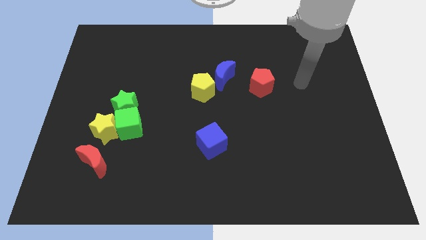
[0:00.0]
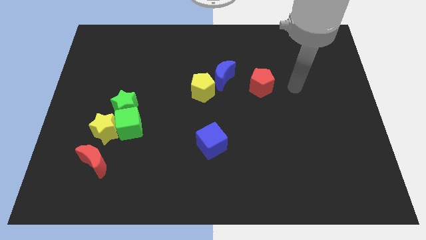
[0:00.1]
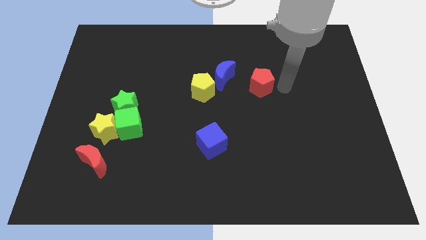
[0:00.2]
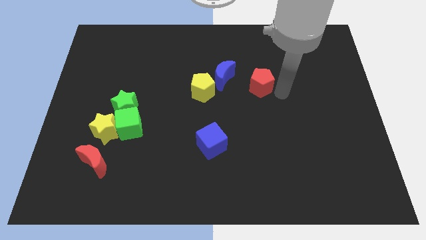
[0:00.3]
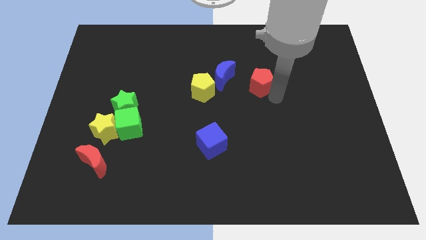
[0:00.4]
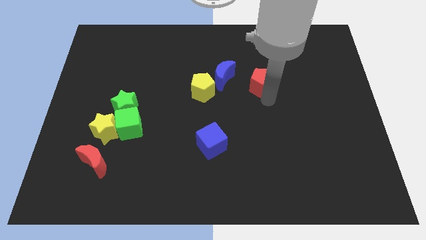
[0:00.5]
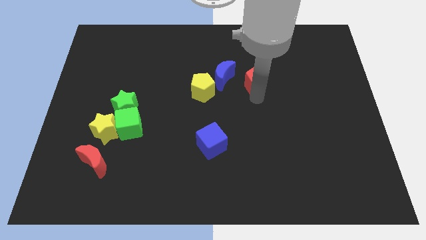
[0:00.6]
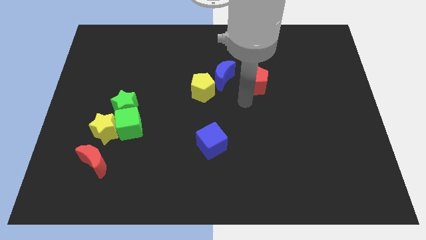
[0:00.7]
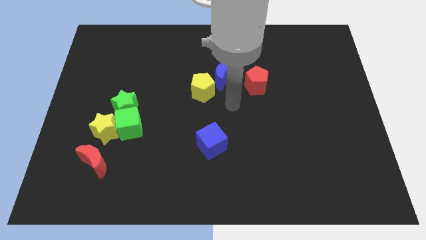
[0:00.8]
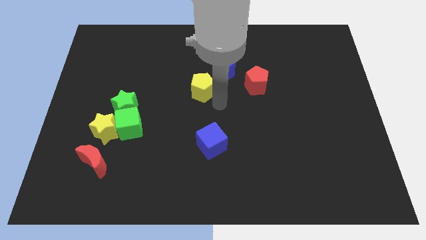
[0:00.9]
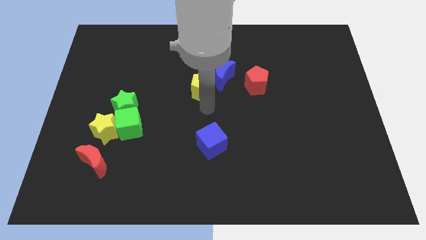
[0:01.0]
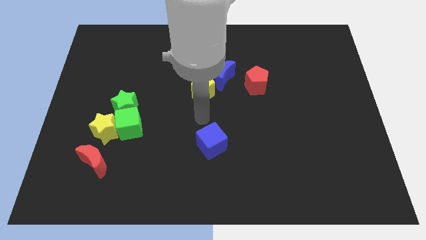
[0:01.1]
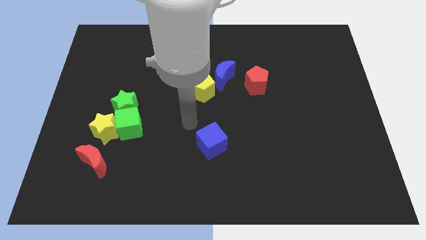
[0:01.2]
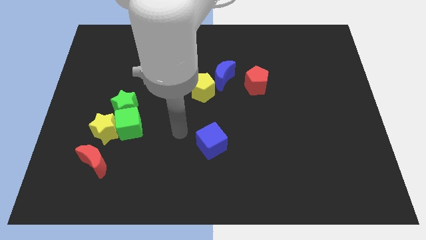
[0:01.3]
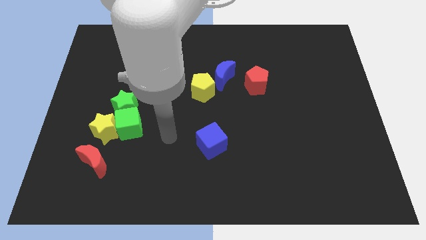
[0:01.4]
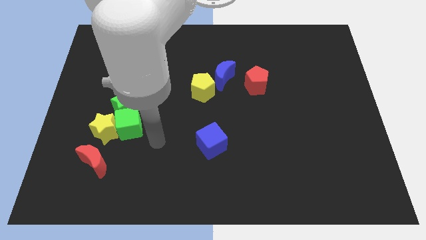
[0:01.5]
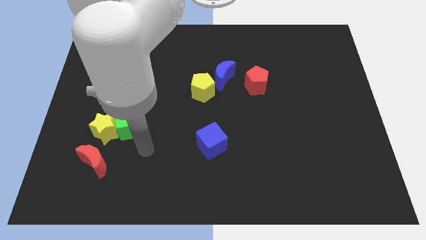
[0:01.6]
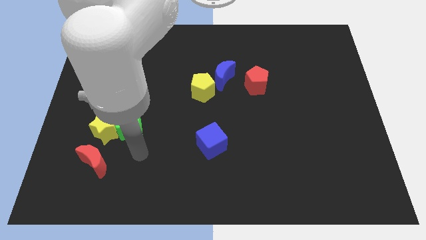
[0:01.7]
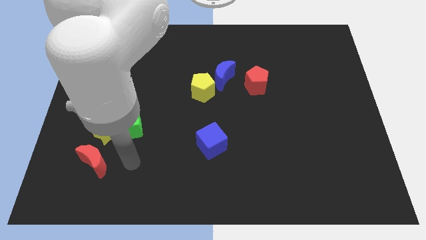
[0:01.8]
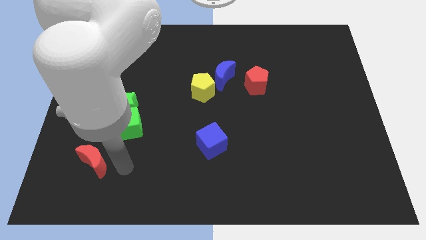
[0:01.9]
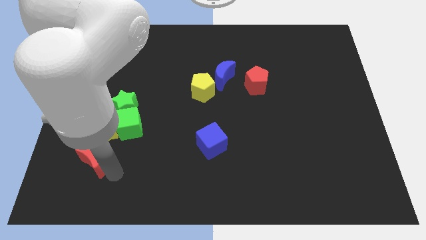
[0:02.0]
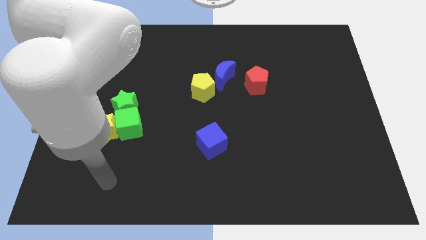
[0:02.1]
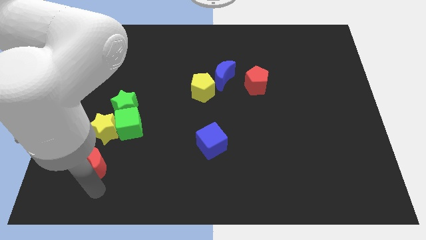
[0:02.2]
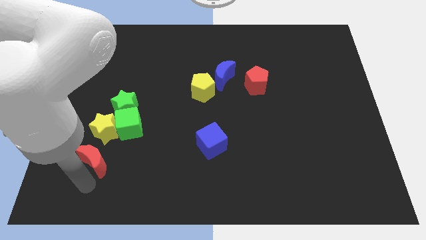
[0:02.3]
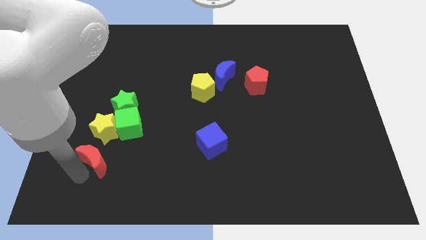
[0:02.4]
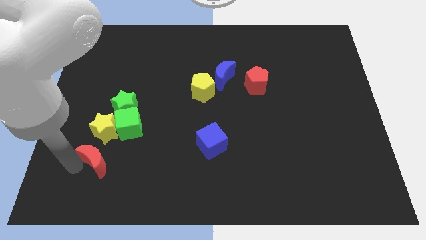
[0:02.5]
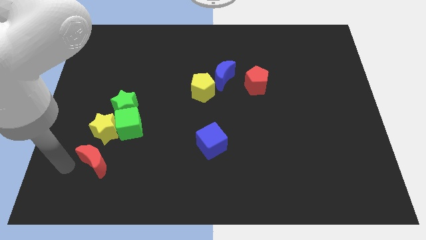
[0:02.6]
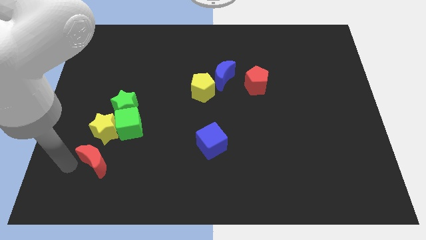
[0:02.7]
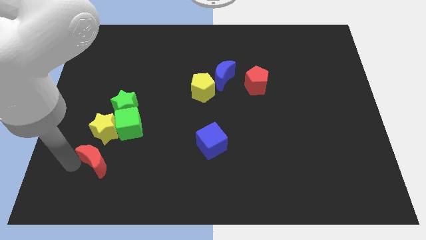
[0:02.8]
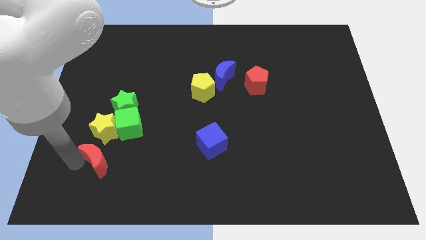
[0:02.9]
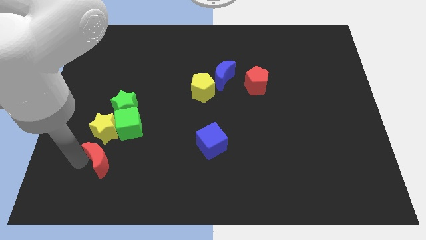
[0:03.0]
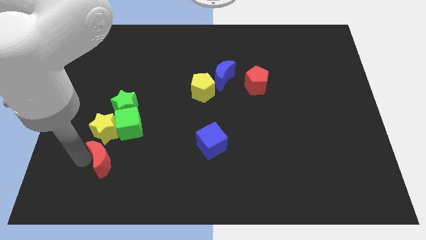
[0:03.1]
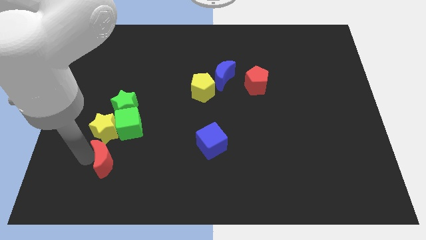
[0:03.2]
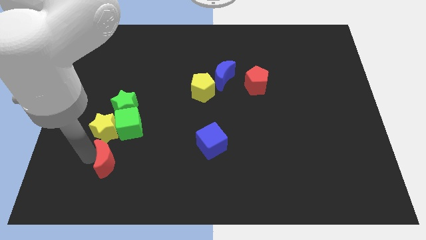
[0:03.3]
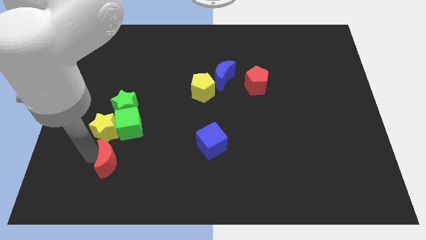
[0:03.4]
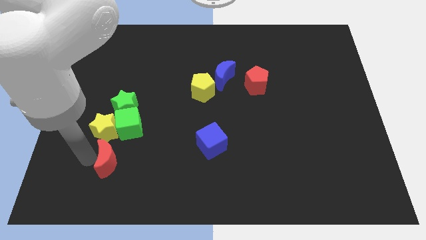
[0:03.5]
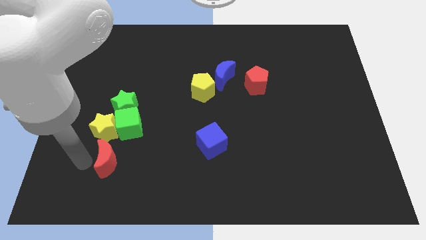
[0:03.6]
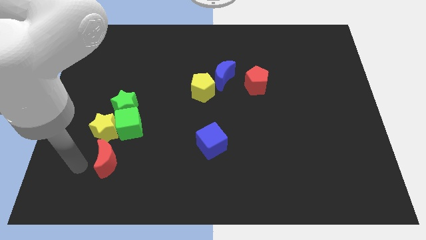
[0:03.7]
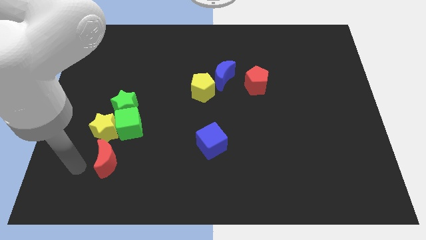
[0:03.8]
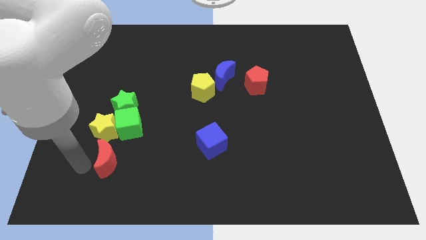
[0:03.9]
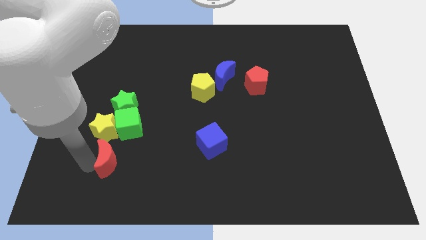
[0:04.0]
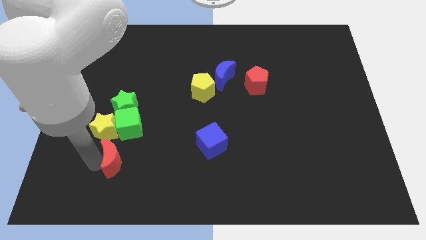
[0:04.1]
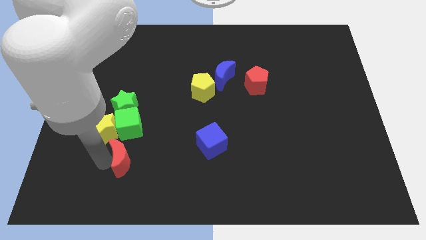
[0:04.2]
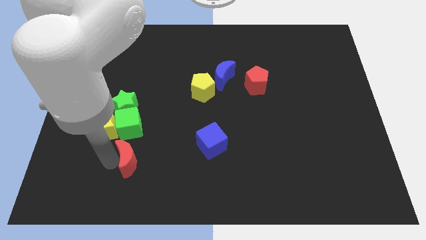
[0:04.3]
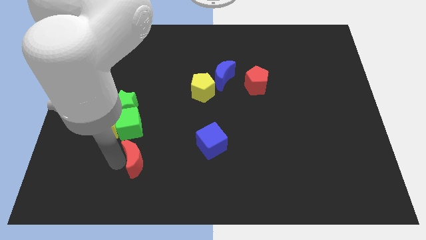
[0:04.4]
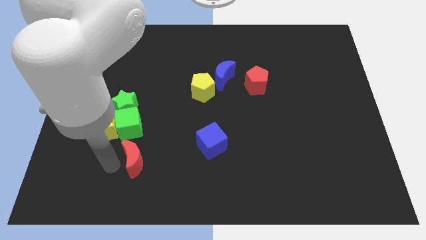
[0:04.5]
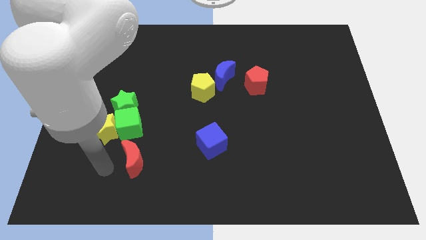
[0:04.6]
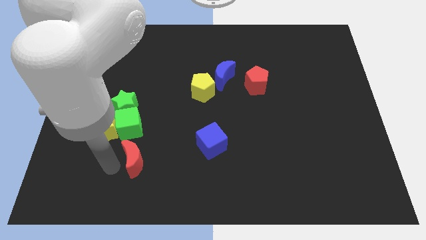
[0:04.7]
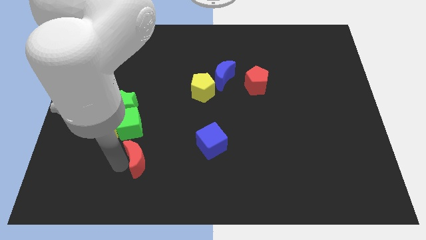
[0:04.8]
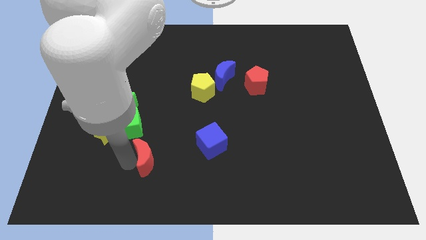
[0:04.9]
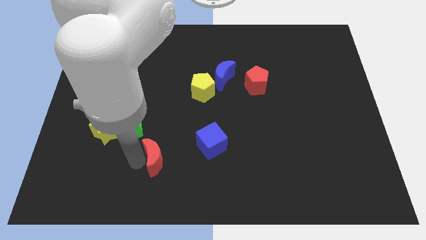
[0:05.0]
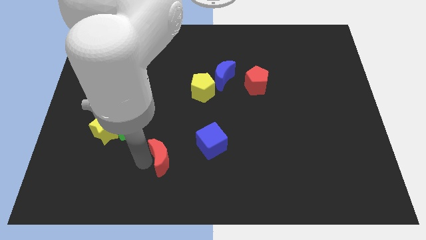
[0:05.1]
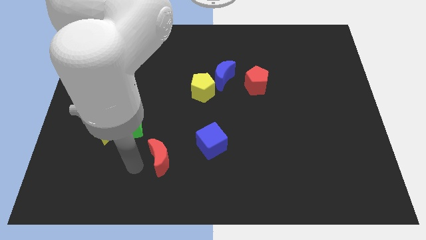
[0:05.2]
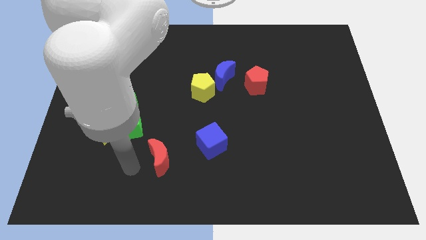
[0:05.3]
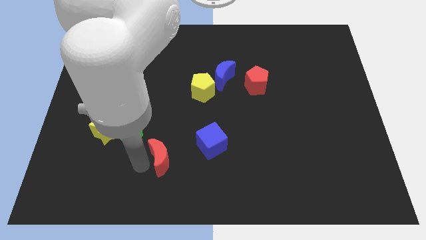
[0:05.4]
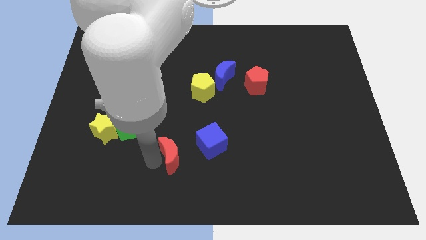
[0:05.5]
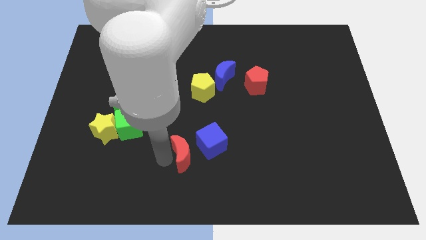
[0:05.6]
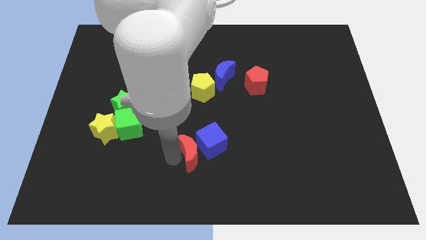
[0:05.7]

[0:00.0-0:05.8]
move the red moon close to the blue cube

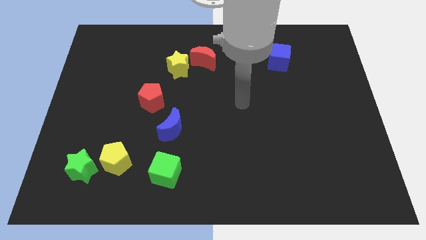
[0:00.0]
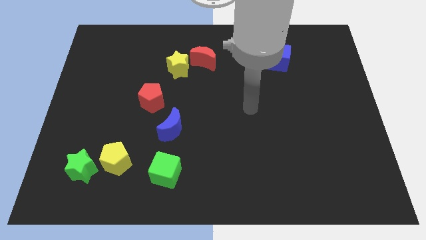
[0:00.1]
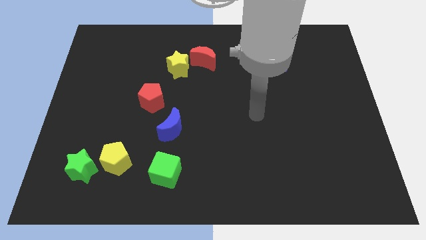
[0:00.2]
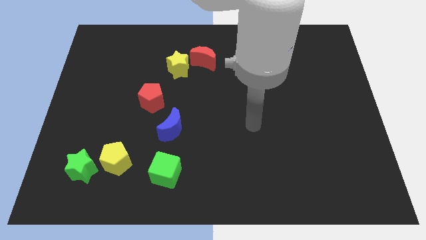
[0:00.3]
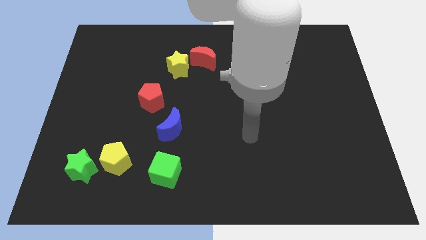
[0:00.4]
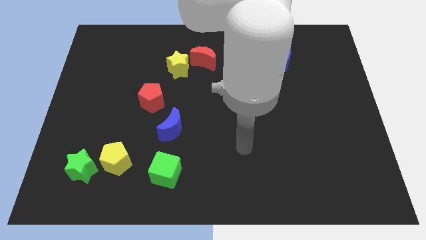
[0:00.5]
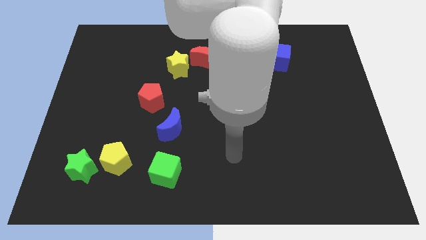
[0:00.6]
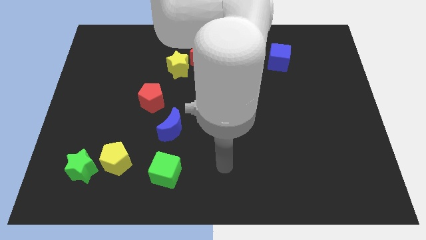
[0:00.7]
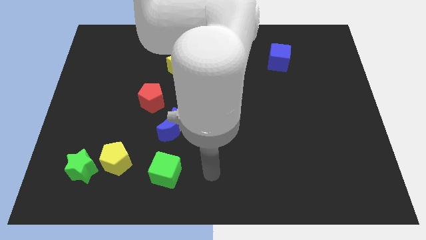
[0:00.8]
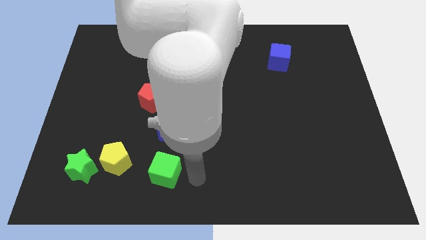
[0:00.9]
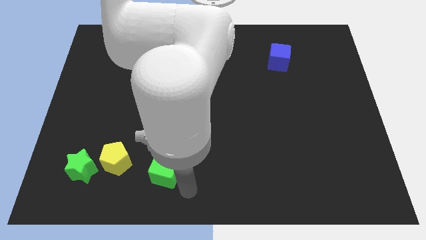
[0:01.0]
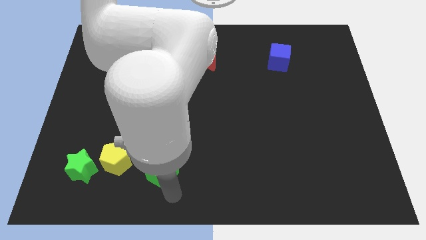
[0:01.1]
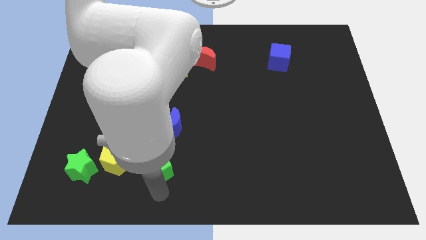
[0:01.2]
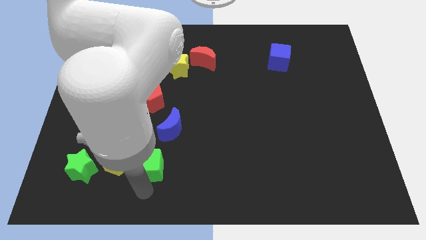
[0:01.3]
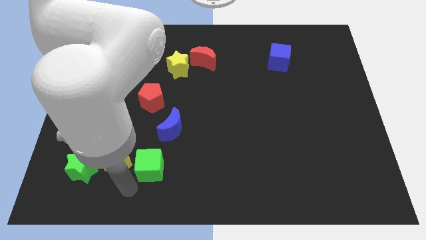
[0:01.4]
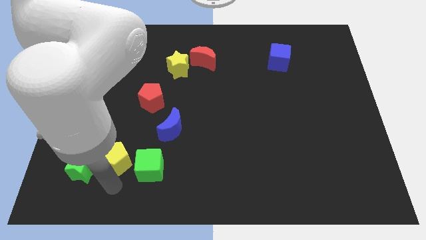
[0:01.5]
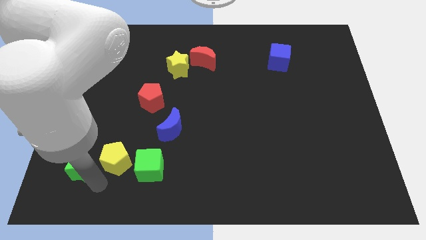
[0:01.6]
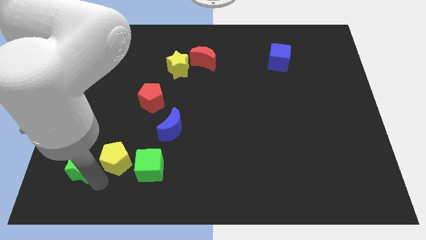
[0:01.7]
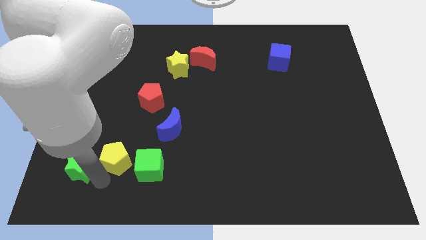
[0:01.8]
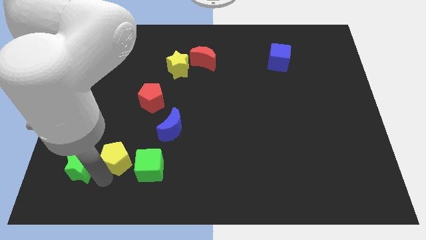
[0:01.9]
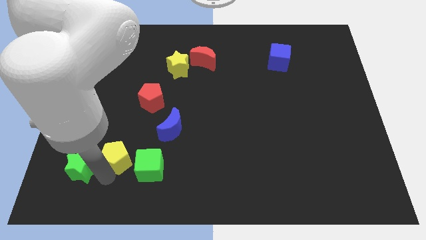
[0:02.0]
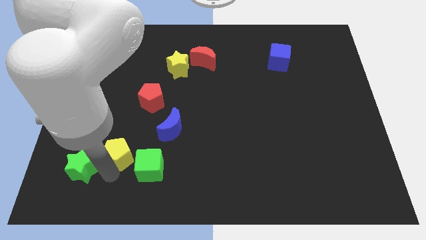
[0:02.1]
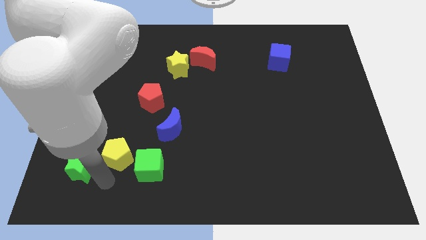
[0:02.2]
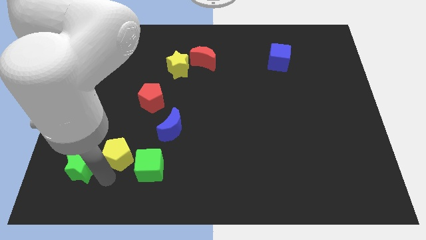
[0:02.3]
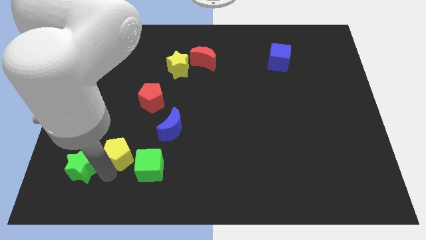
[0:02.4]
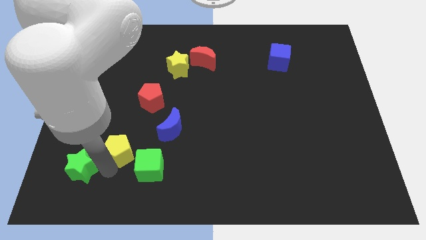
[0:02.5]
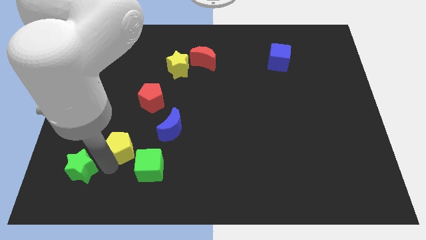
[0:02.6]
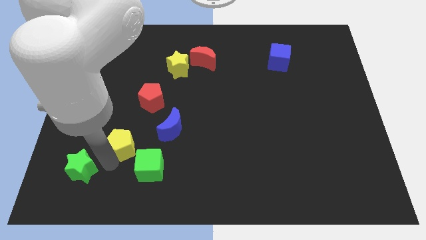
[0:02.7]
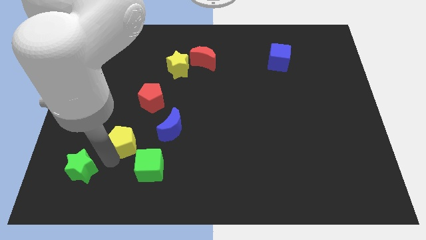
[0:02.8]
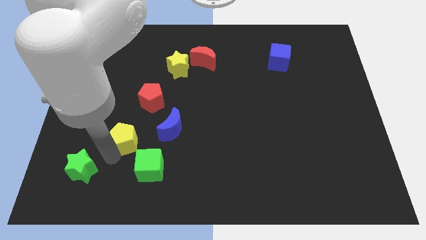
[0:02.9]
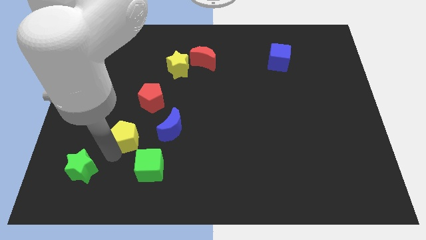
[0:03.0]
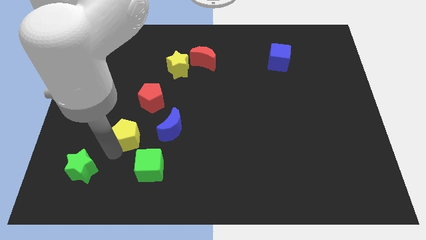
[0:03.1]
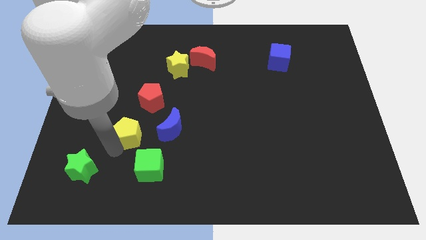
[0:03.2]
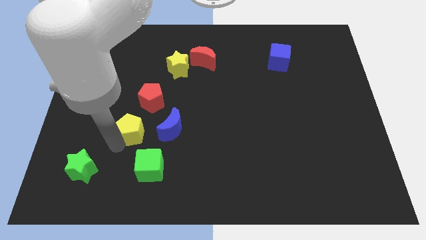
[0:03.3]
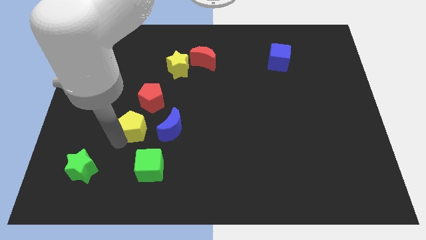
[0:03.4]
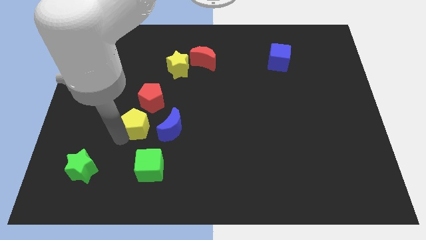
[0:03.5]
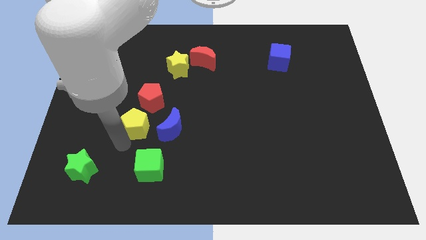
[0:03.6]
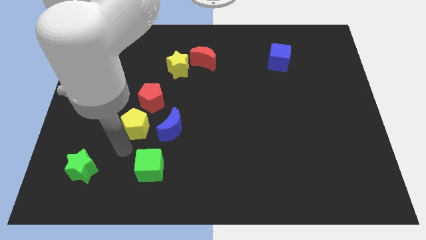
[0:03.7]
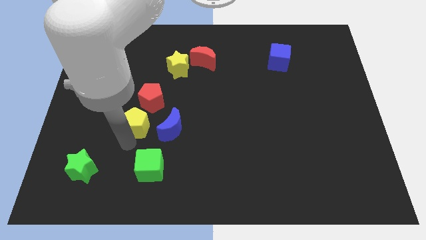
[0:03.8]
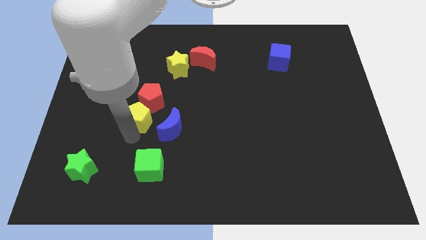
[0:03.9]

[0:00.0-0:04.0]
move the yellow pentagon to the red pentagon
